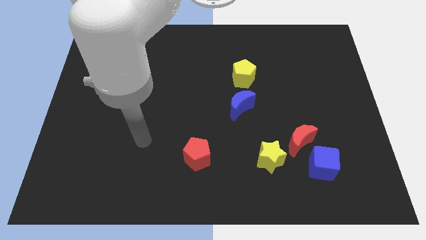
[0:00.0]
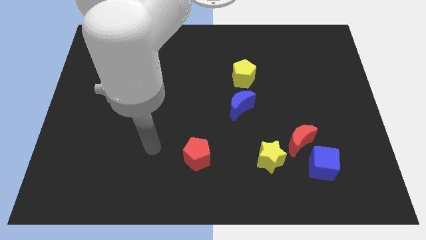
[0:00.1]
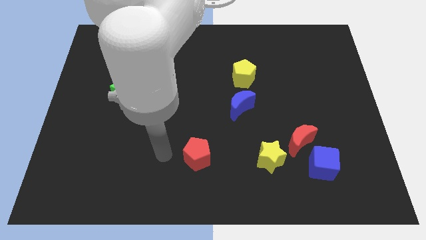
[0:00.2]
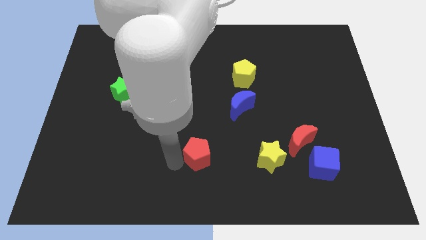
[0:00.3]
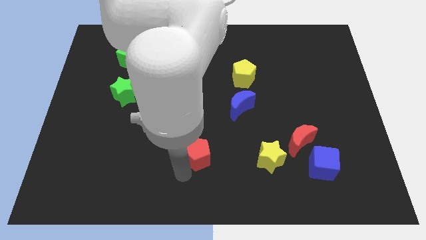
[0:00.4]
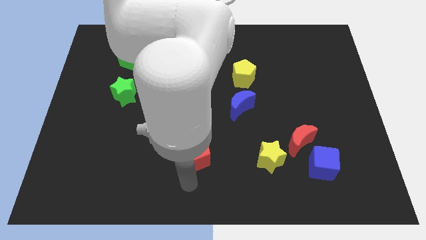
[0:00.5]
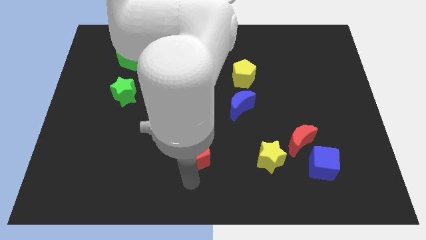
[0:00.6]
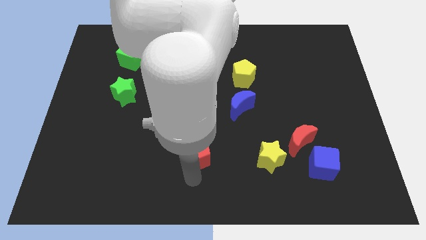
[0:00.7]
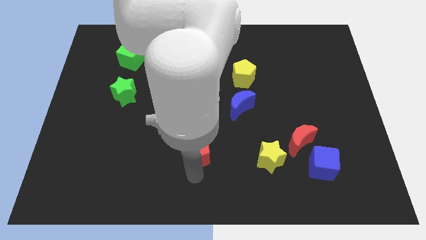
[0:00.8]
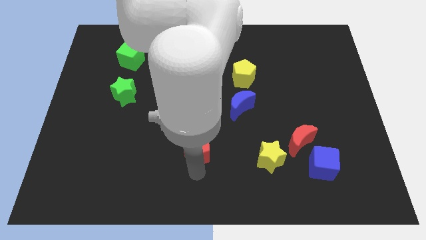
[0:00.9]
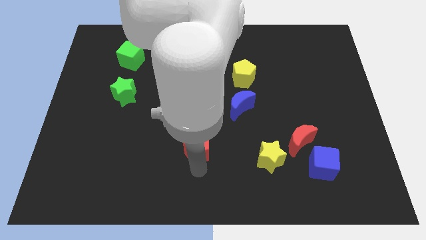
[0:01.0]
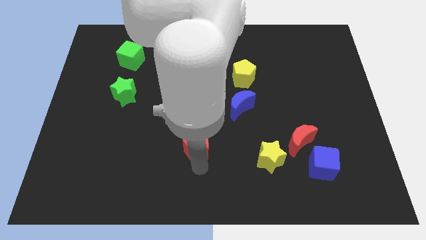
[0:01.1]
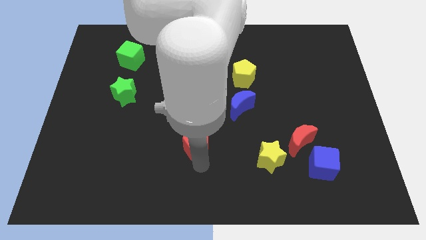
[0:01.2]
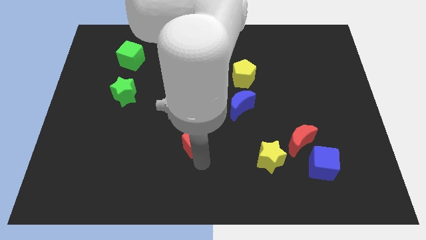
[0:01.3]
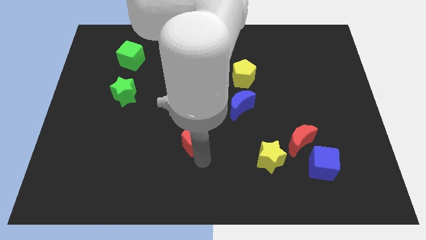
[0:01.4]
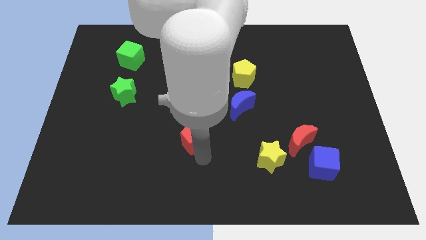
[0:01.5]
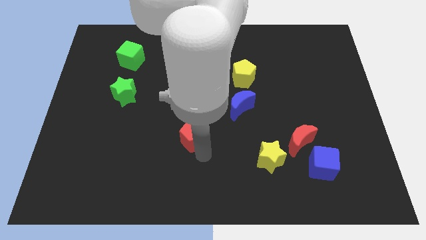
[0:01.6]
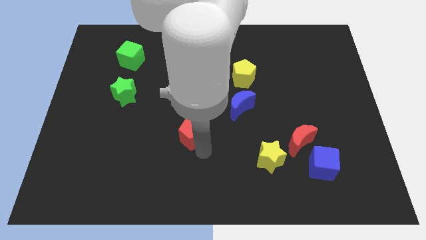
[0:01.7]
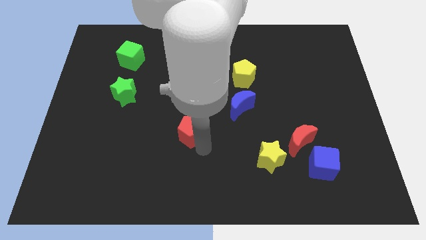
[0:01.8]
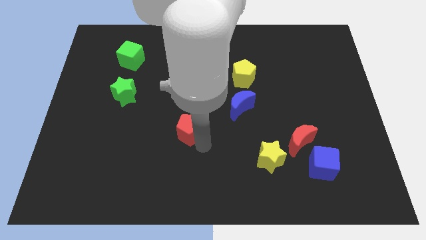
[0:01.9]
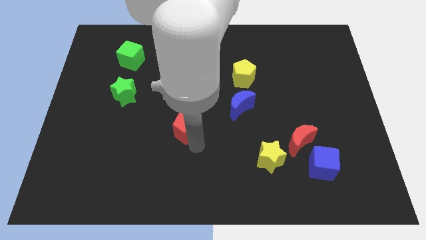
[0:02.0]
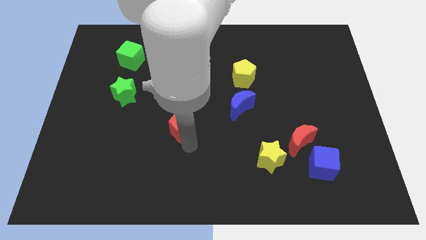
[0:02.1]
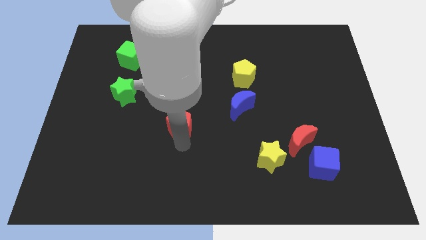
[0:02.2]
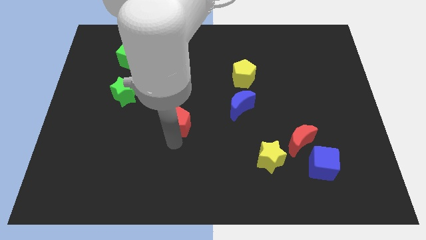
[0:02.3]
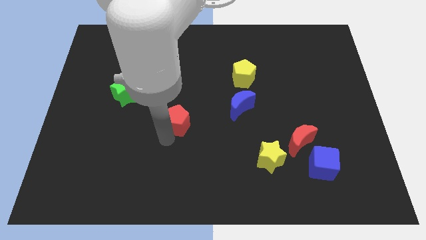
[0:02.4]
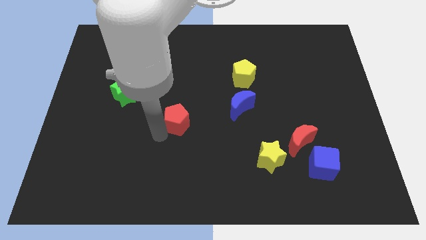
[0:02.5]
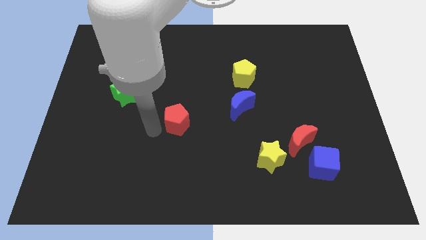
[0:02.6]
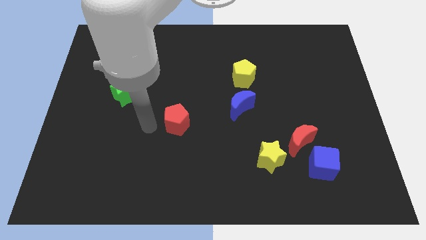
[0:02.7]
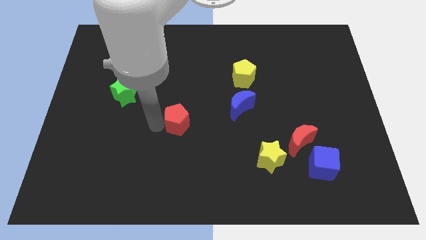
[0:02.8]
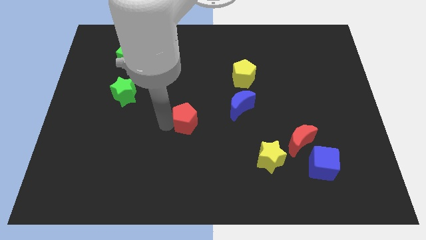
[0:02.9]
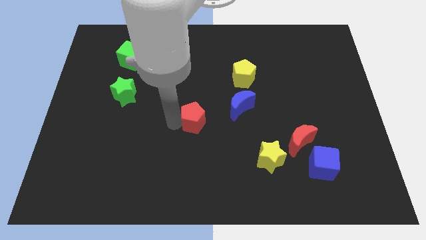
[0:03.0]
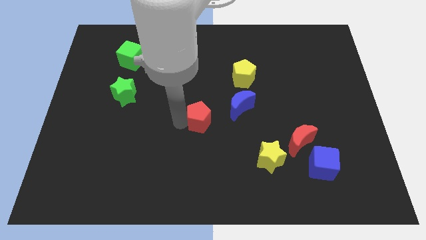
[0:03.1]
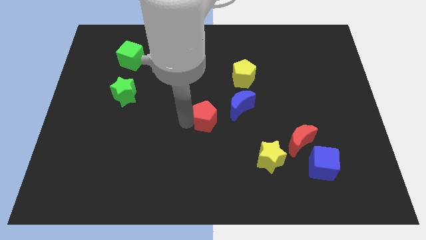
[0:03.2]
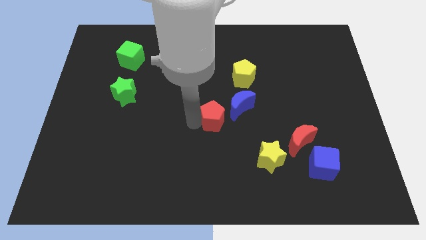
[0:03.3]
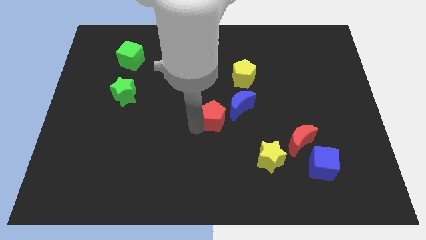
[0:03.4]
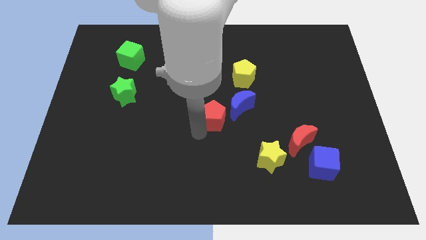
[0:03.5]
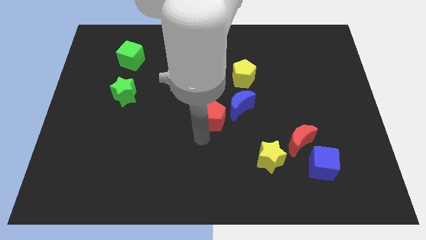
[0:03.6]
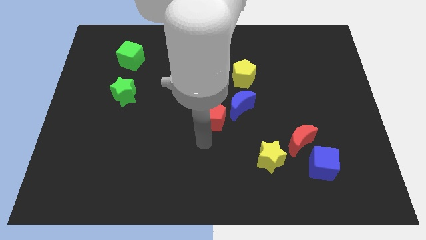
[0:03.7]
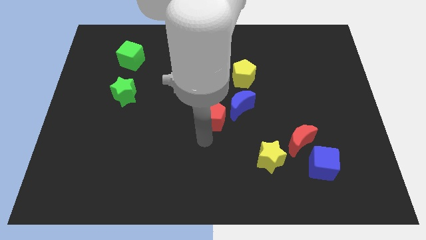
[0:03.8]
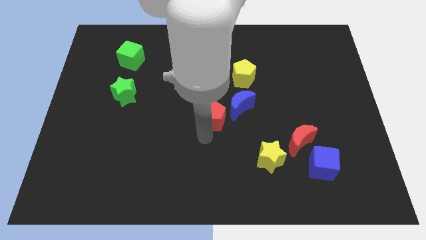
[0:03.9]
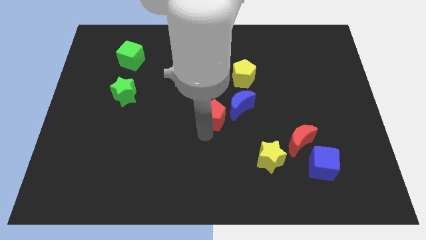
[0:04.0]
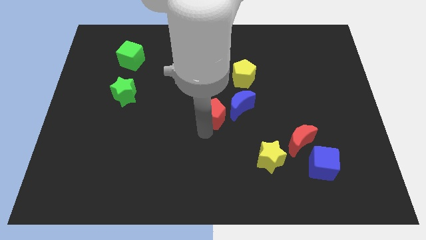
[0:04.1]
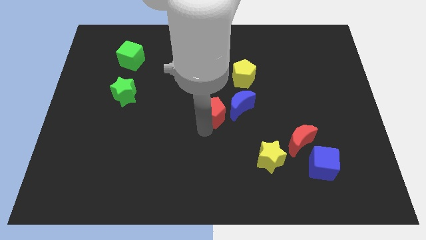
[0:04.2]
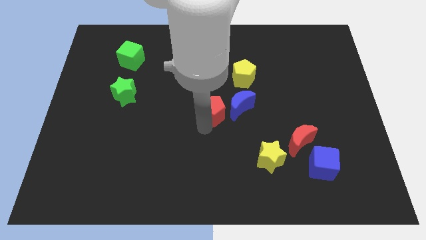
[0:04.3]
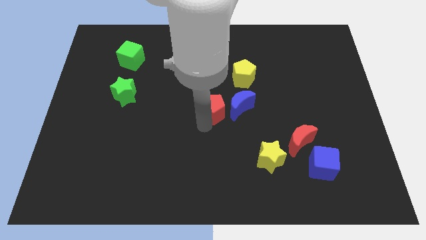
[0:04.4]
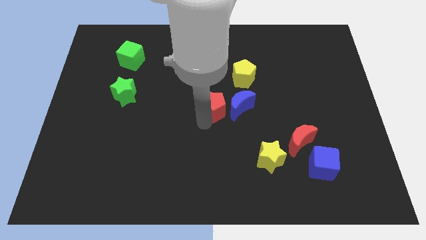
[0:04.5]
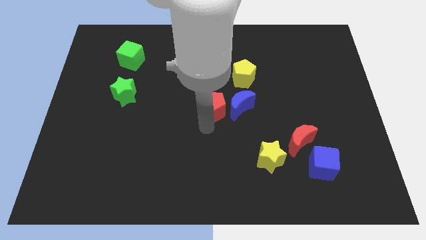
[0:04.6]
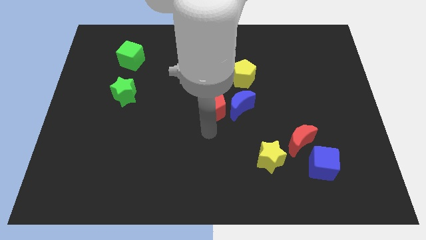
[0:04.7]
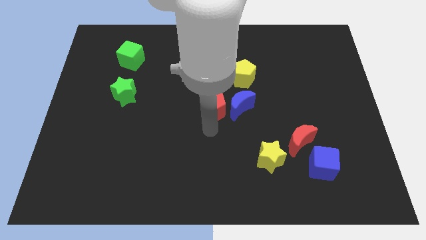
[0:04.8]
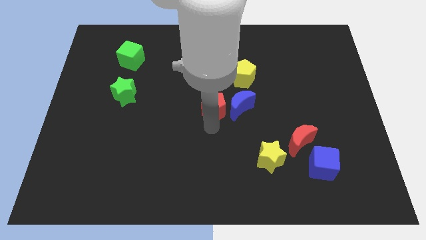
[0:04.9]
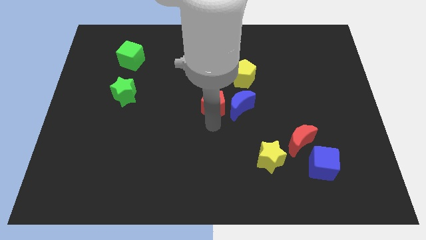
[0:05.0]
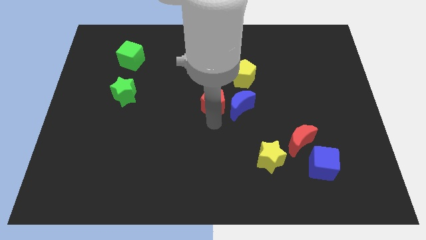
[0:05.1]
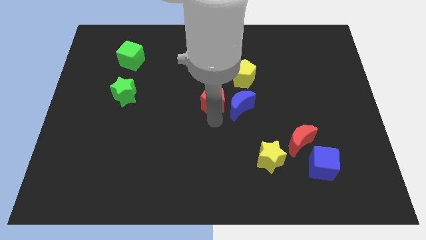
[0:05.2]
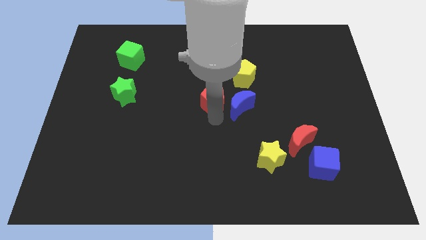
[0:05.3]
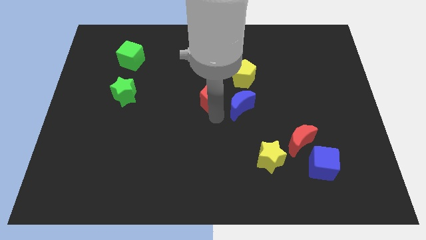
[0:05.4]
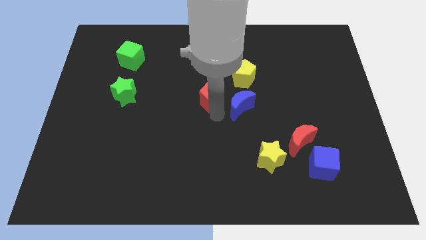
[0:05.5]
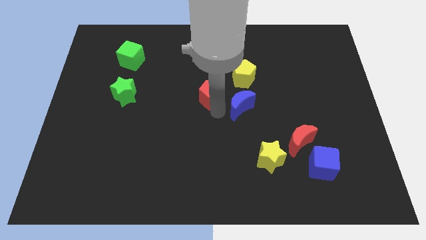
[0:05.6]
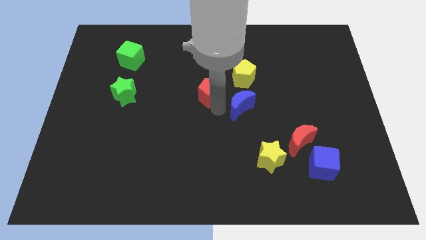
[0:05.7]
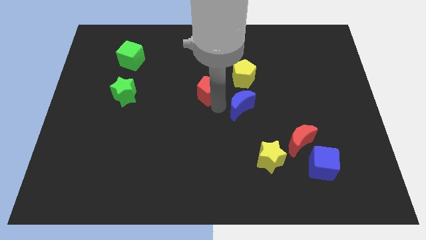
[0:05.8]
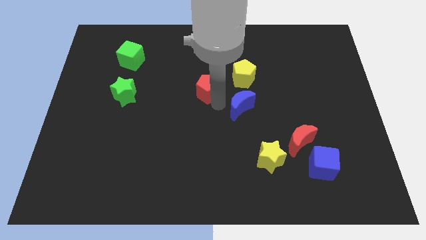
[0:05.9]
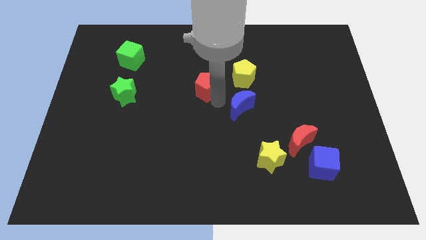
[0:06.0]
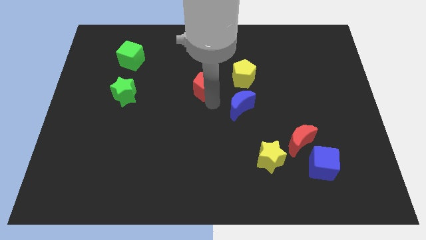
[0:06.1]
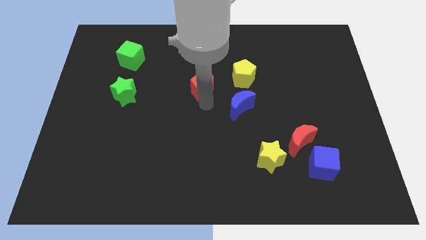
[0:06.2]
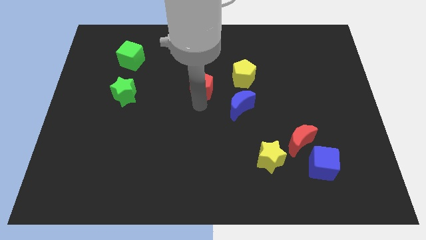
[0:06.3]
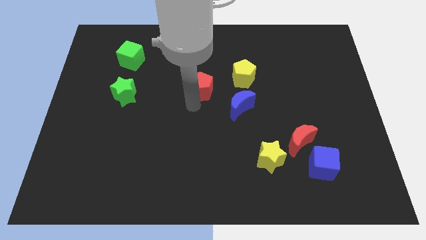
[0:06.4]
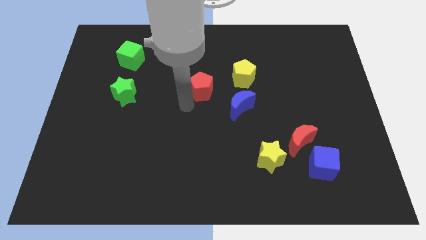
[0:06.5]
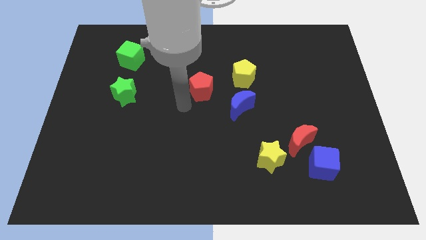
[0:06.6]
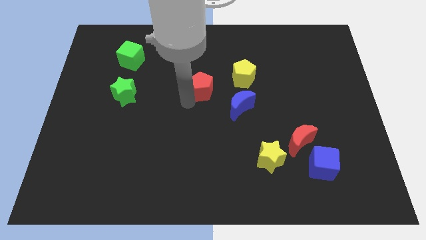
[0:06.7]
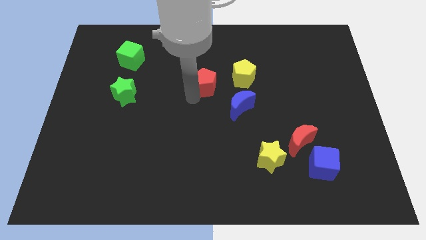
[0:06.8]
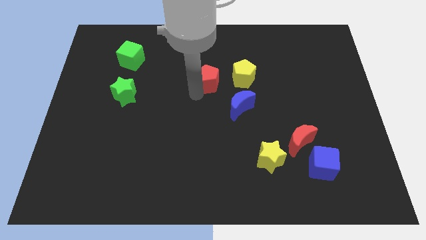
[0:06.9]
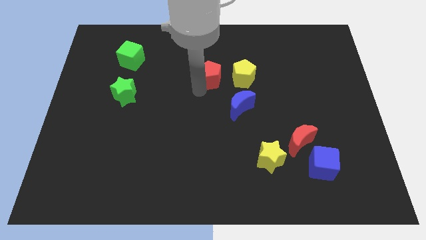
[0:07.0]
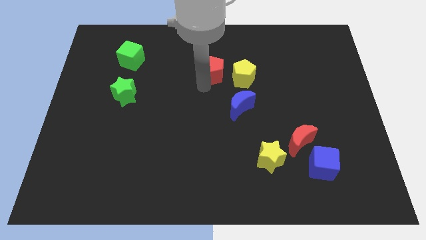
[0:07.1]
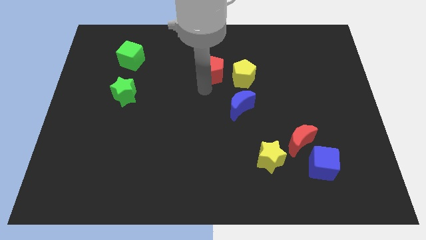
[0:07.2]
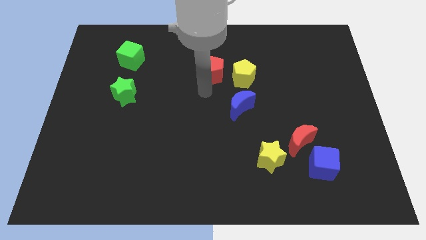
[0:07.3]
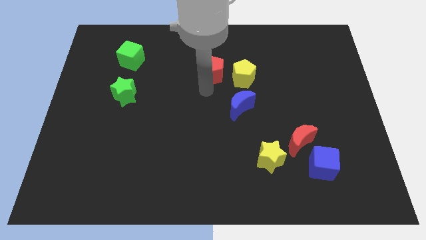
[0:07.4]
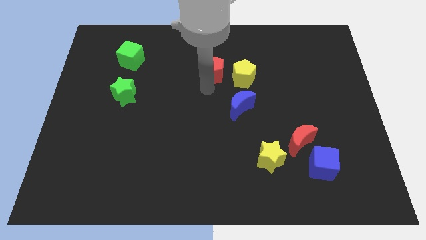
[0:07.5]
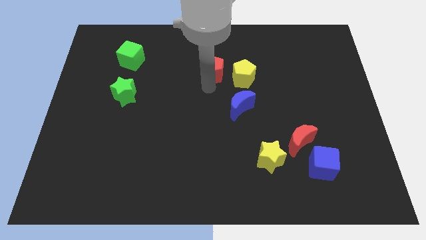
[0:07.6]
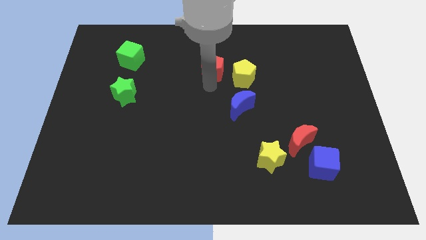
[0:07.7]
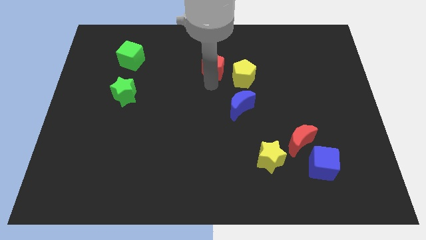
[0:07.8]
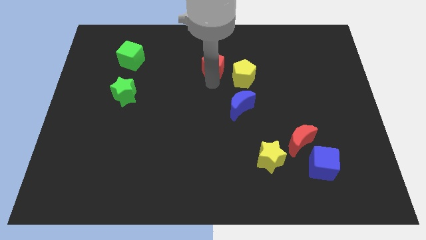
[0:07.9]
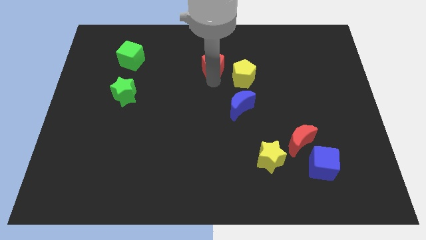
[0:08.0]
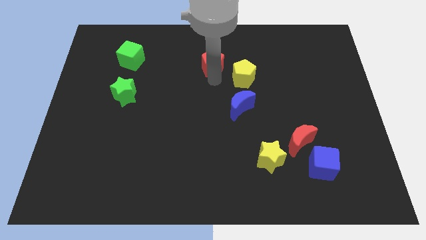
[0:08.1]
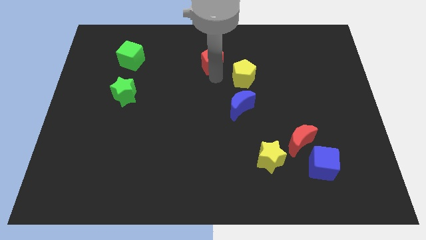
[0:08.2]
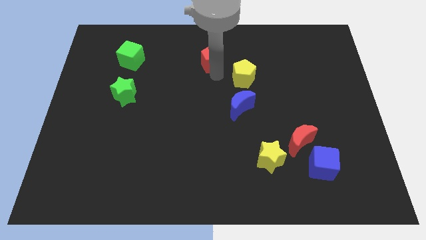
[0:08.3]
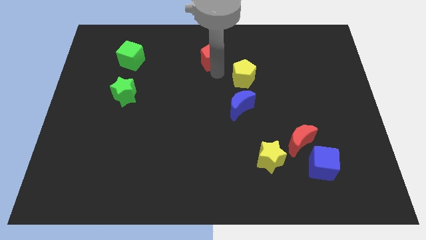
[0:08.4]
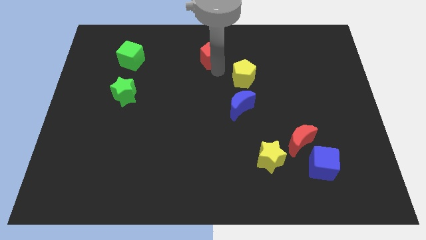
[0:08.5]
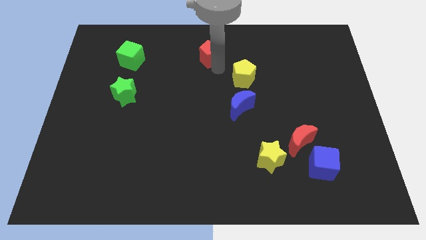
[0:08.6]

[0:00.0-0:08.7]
move the red pentagon to the top
